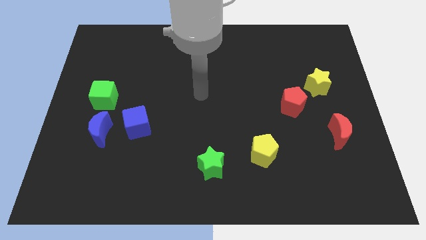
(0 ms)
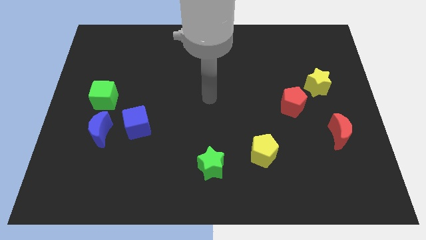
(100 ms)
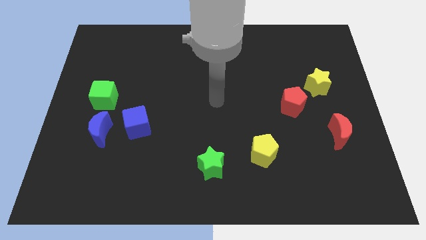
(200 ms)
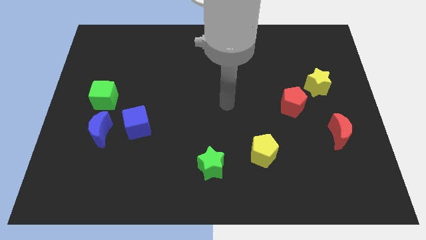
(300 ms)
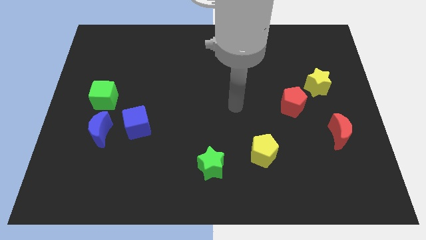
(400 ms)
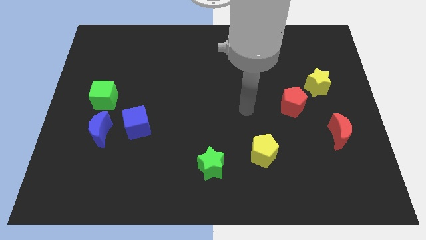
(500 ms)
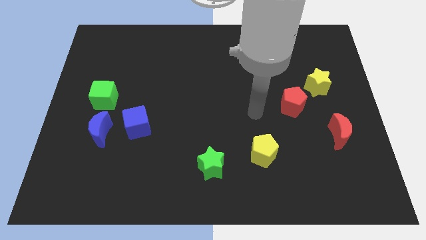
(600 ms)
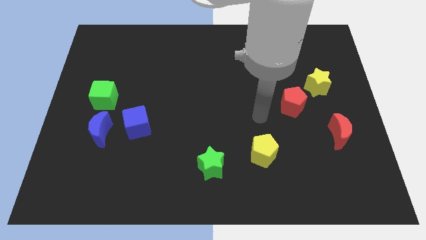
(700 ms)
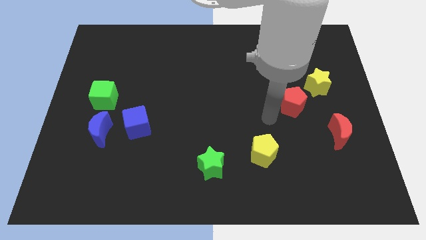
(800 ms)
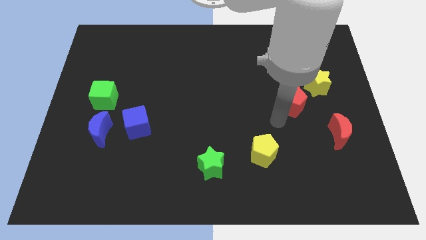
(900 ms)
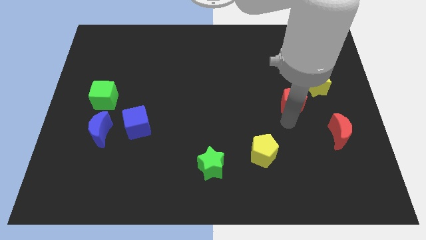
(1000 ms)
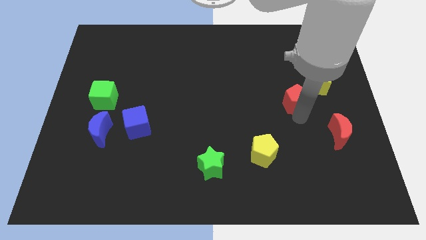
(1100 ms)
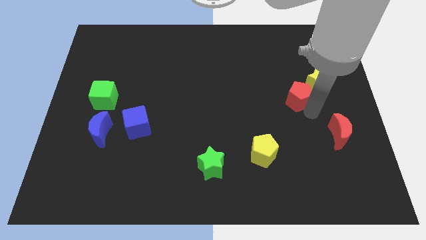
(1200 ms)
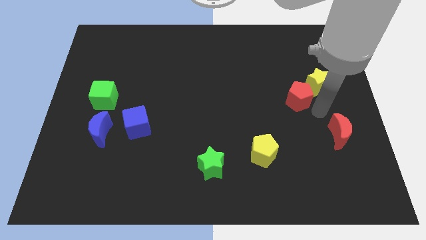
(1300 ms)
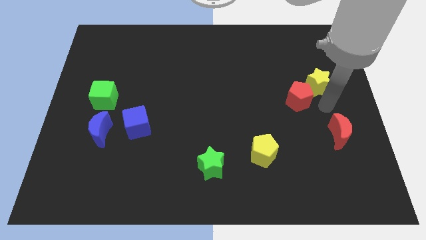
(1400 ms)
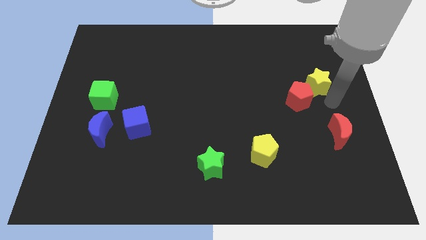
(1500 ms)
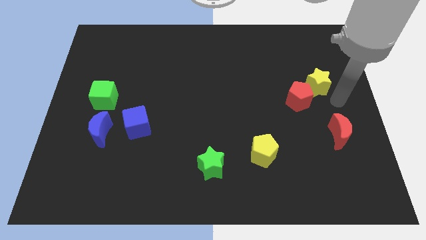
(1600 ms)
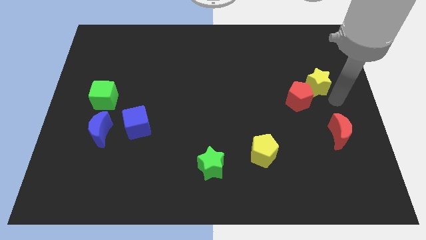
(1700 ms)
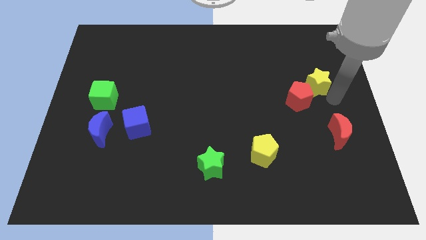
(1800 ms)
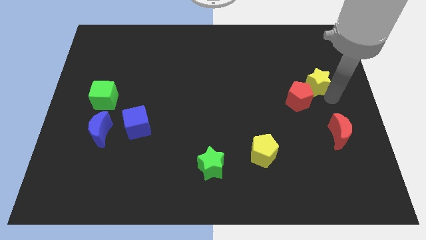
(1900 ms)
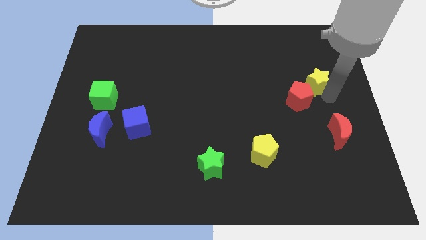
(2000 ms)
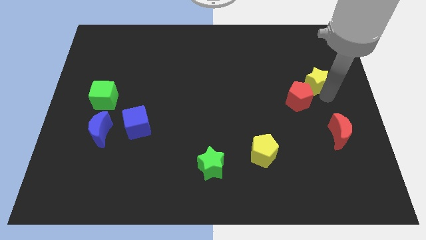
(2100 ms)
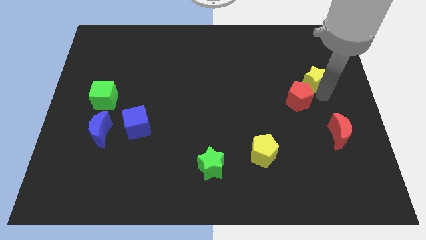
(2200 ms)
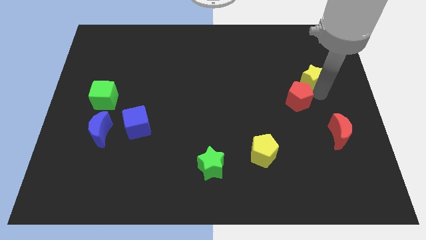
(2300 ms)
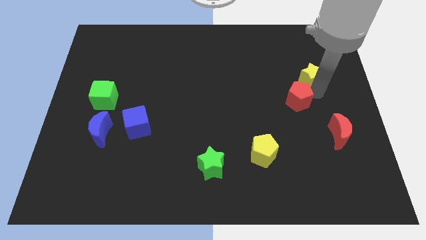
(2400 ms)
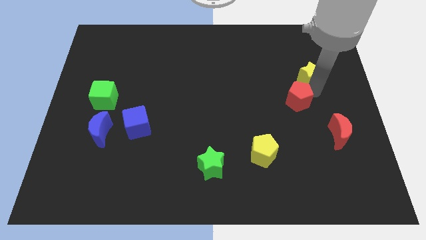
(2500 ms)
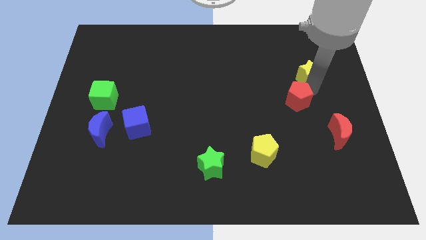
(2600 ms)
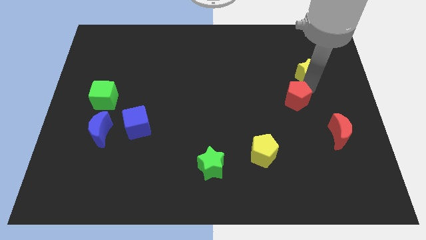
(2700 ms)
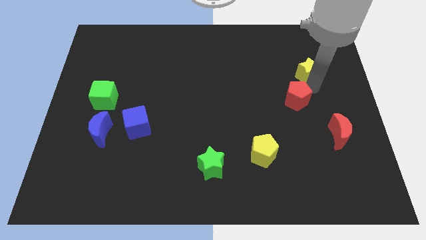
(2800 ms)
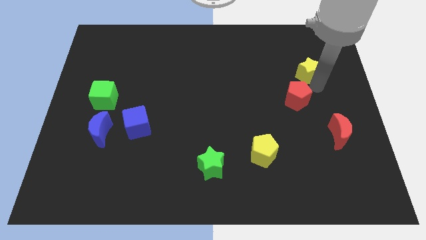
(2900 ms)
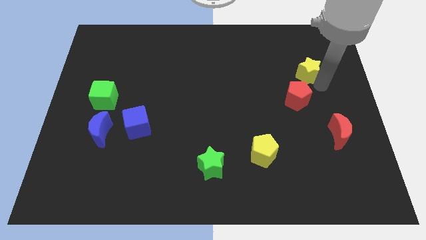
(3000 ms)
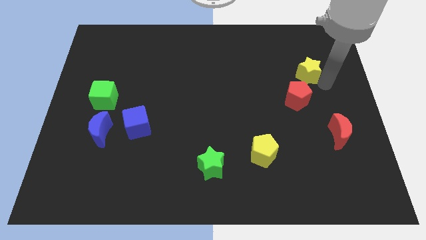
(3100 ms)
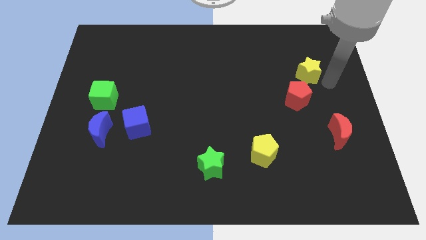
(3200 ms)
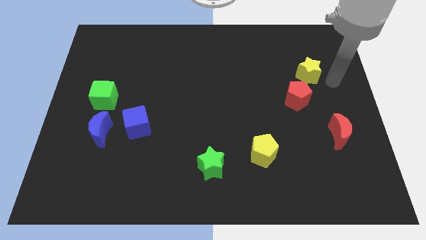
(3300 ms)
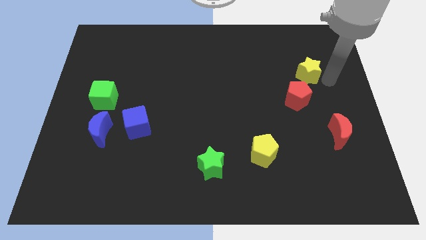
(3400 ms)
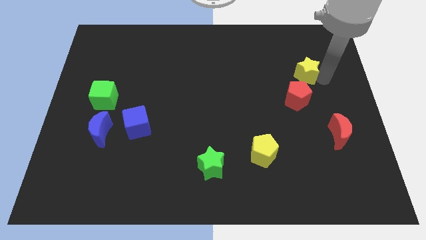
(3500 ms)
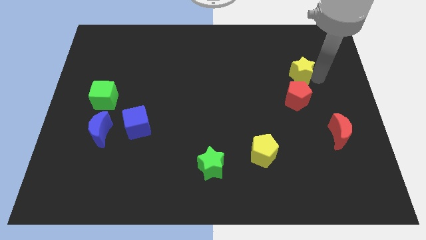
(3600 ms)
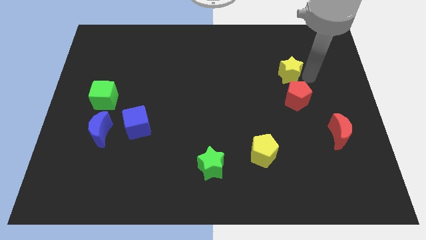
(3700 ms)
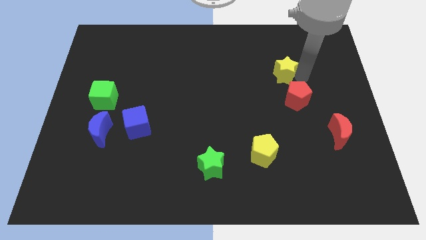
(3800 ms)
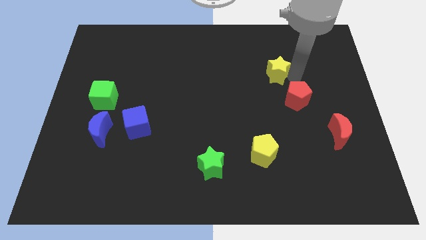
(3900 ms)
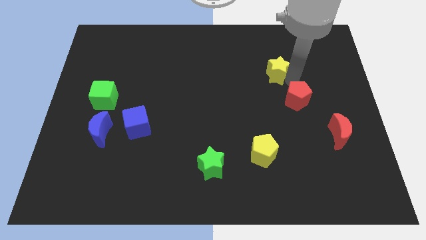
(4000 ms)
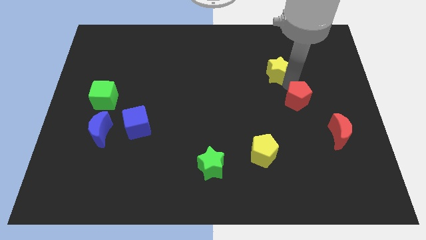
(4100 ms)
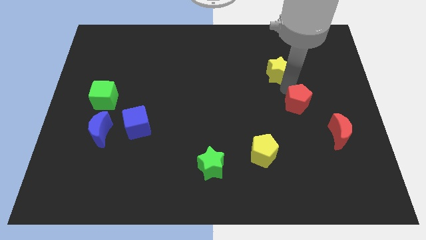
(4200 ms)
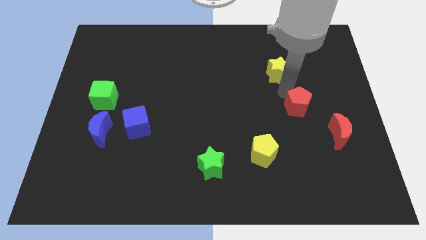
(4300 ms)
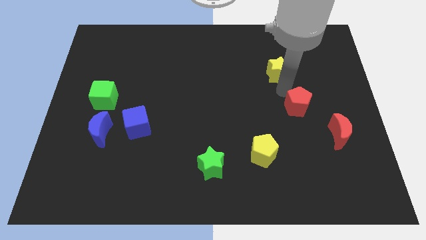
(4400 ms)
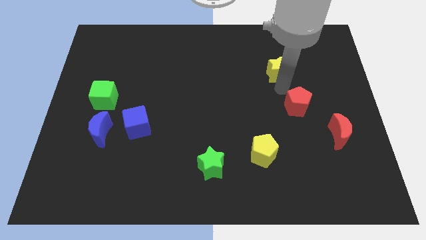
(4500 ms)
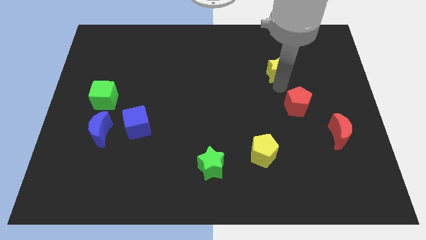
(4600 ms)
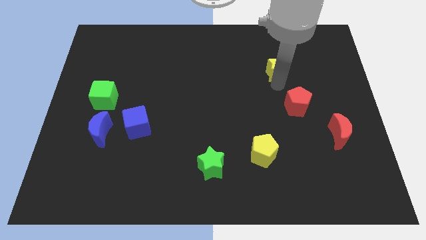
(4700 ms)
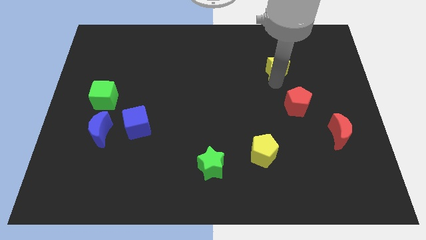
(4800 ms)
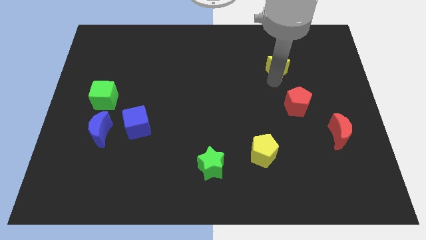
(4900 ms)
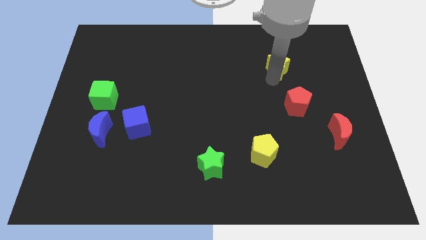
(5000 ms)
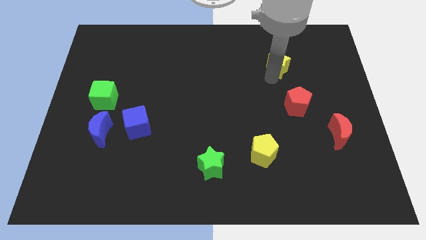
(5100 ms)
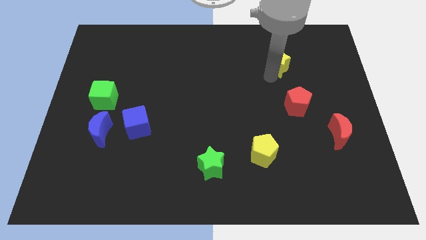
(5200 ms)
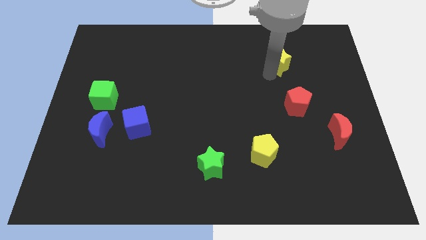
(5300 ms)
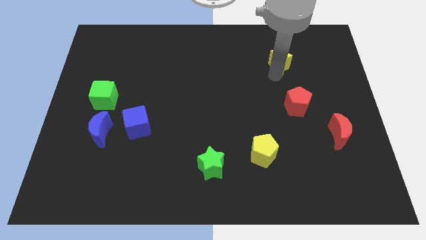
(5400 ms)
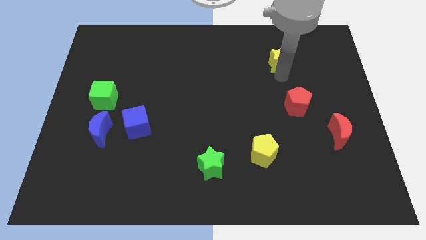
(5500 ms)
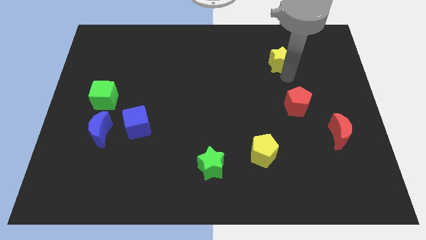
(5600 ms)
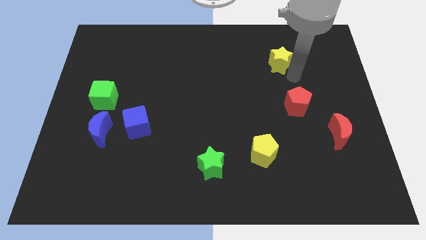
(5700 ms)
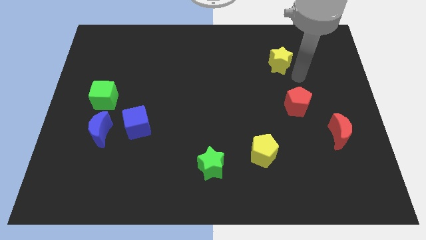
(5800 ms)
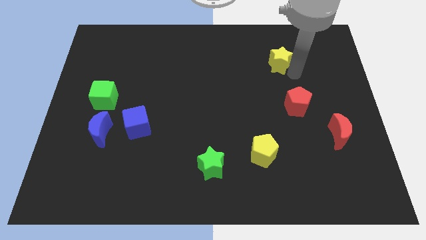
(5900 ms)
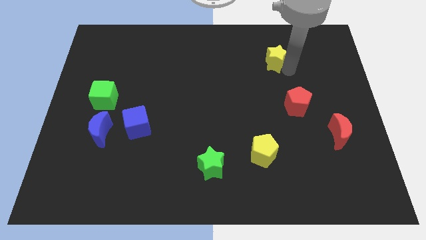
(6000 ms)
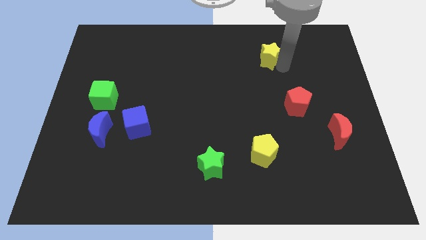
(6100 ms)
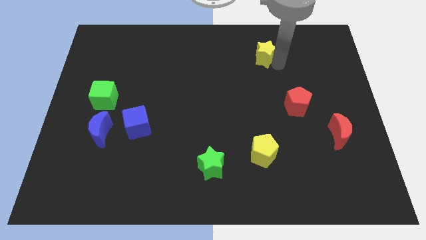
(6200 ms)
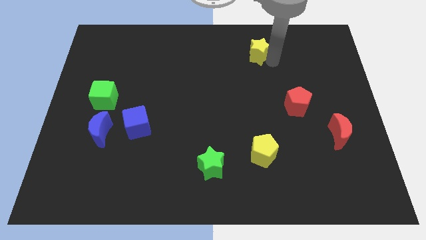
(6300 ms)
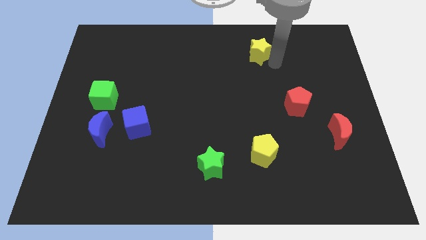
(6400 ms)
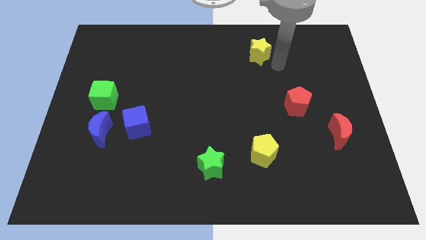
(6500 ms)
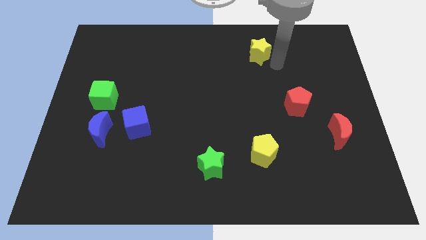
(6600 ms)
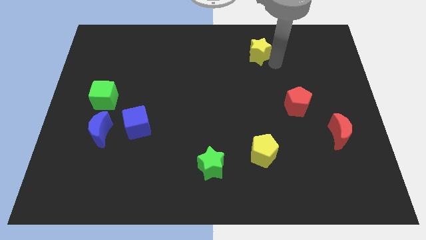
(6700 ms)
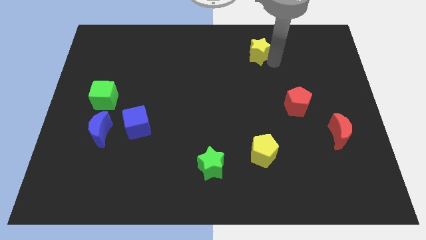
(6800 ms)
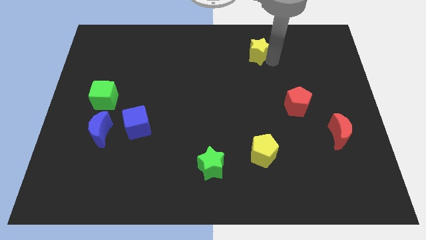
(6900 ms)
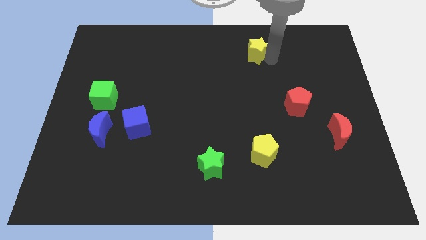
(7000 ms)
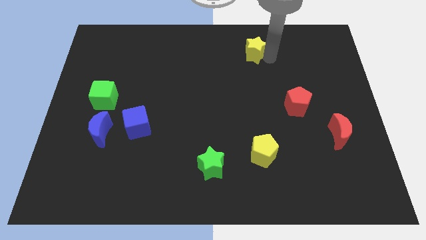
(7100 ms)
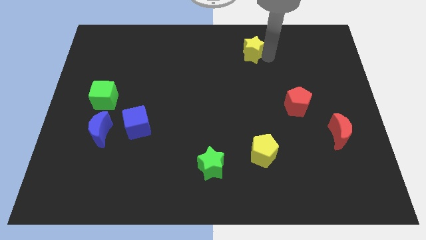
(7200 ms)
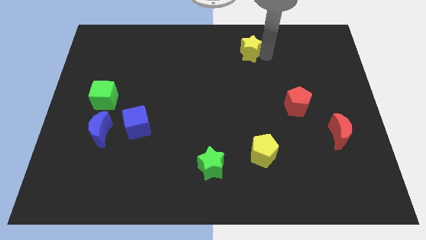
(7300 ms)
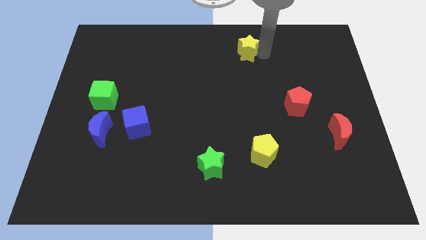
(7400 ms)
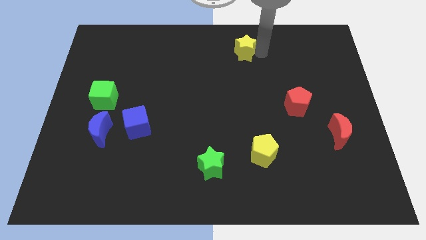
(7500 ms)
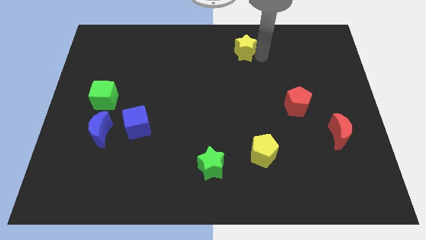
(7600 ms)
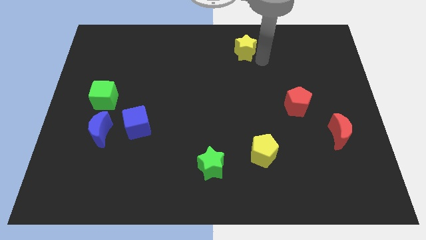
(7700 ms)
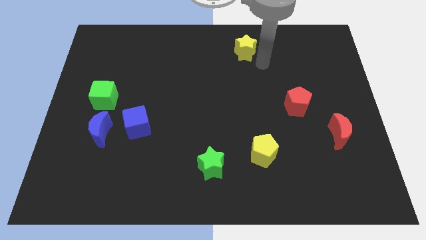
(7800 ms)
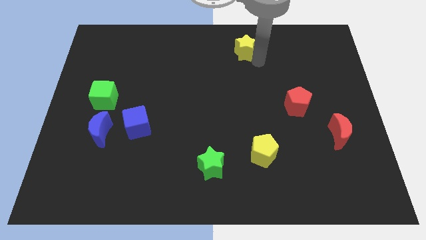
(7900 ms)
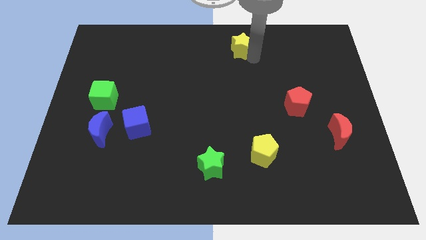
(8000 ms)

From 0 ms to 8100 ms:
put the yellow star to the top side
